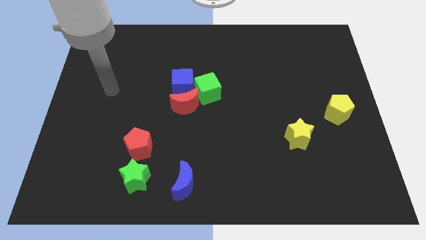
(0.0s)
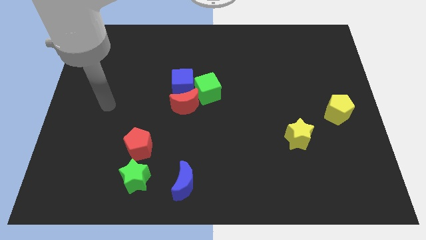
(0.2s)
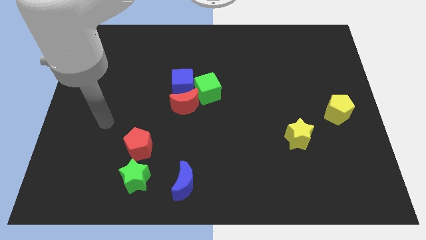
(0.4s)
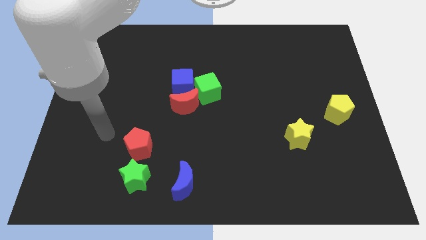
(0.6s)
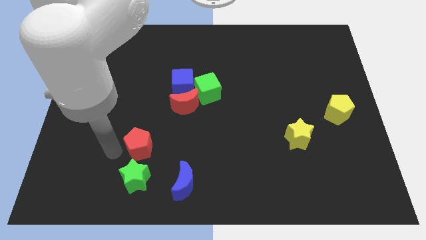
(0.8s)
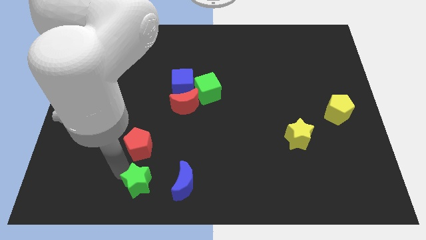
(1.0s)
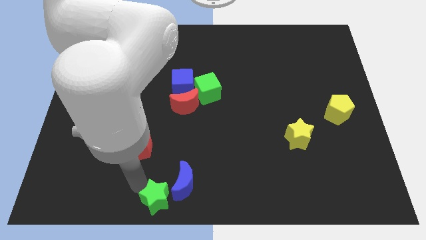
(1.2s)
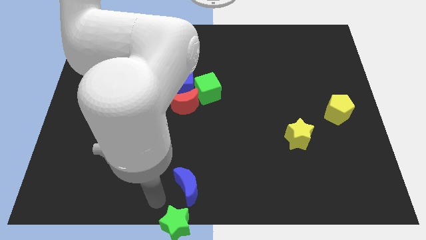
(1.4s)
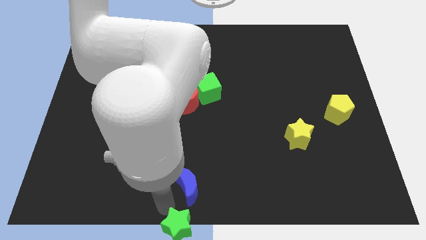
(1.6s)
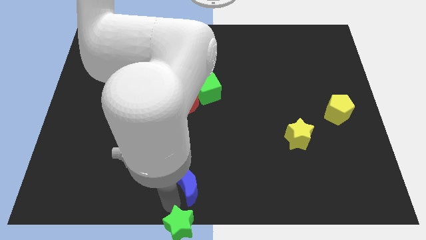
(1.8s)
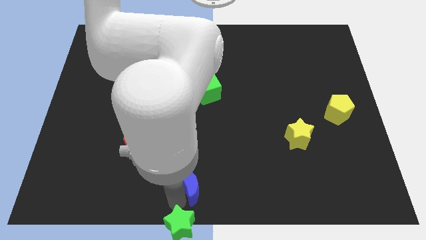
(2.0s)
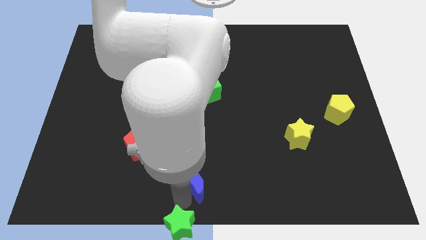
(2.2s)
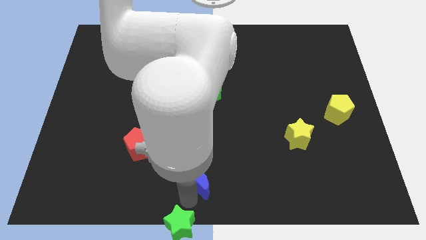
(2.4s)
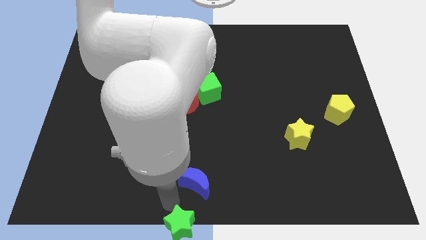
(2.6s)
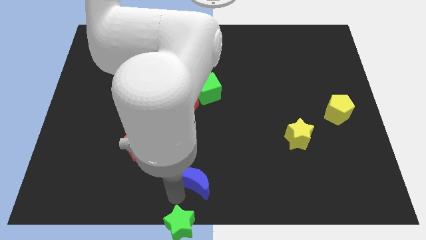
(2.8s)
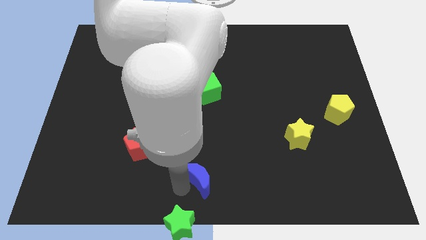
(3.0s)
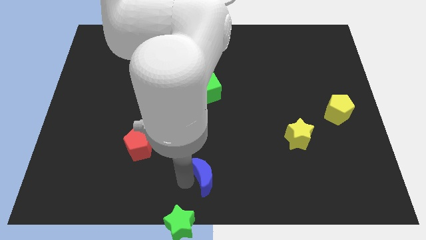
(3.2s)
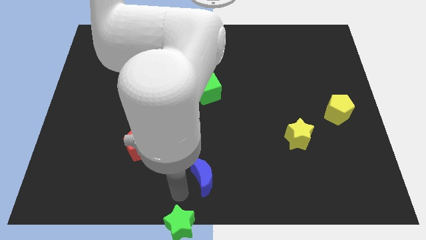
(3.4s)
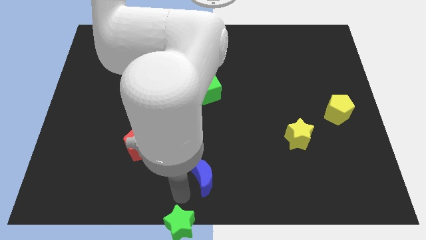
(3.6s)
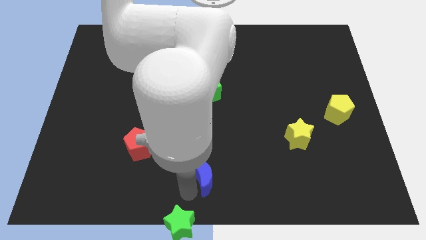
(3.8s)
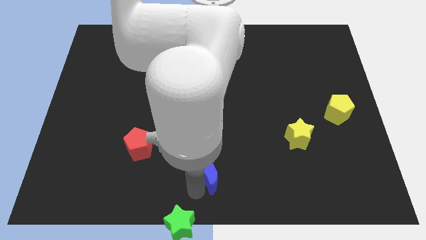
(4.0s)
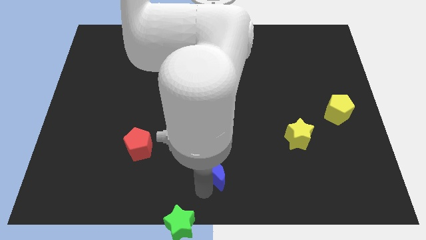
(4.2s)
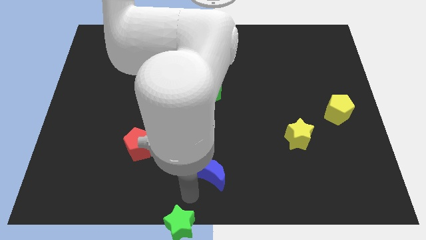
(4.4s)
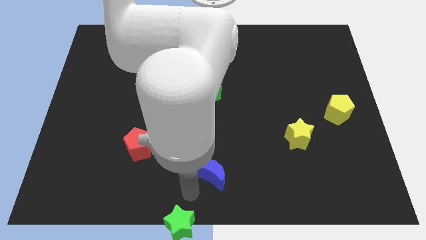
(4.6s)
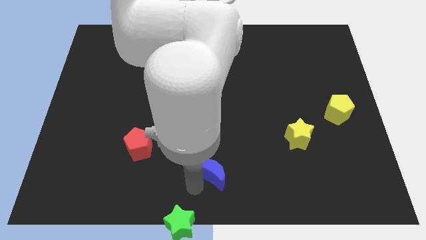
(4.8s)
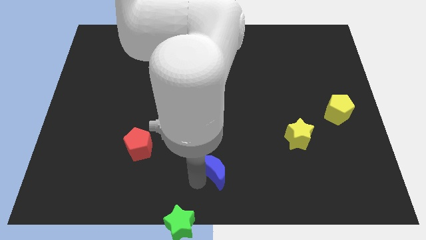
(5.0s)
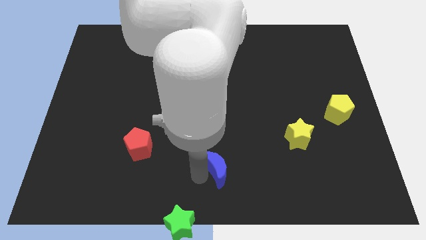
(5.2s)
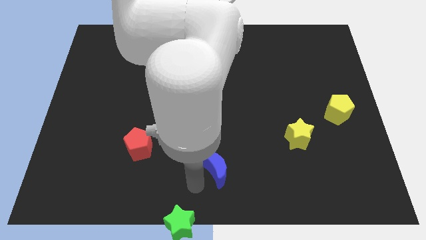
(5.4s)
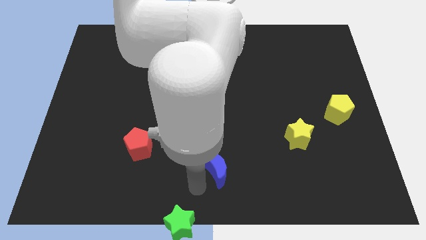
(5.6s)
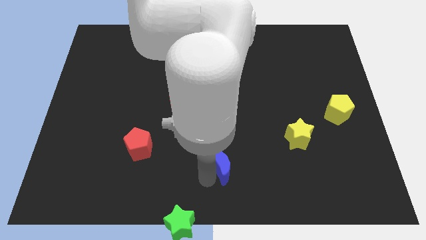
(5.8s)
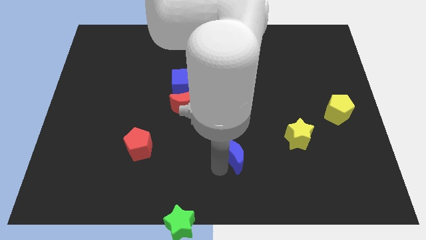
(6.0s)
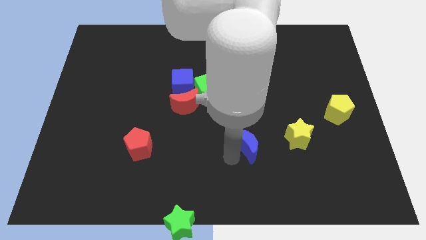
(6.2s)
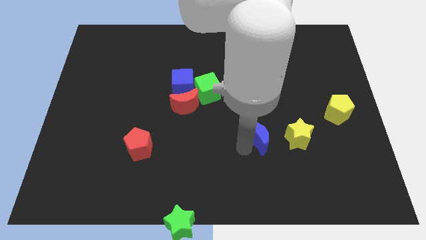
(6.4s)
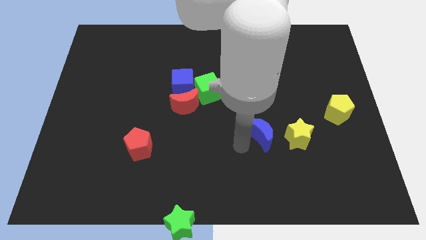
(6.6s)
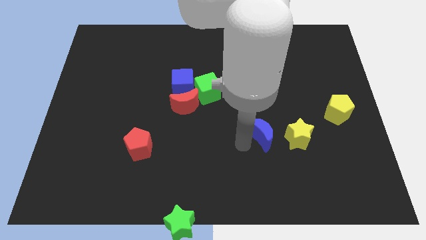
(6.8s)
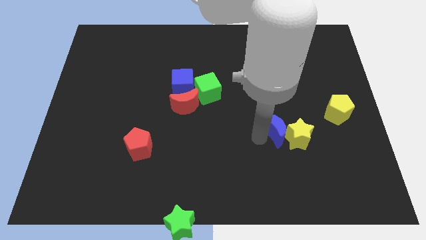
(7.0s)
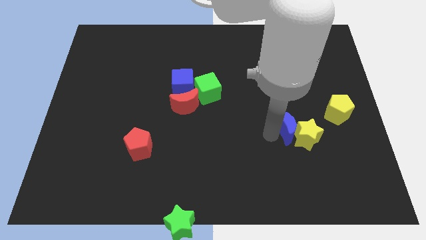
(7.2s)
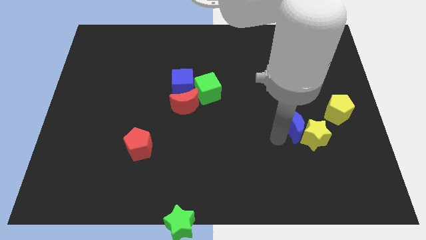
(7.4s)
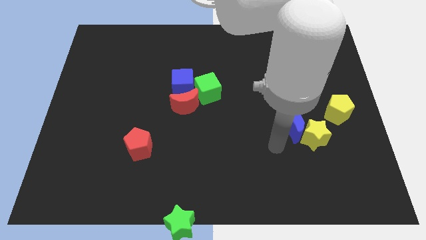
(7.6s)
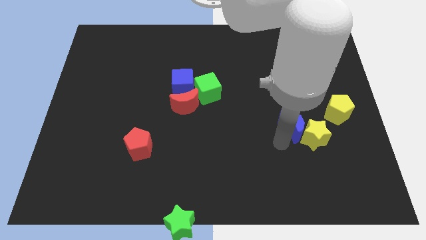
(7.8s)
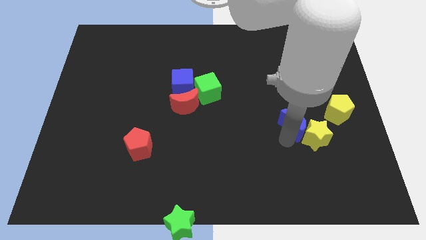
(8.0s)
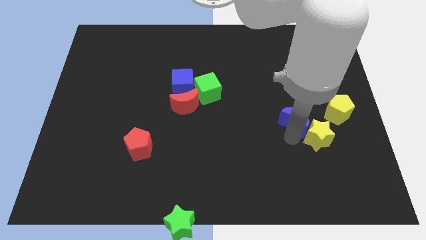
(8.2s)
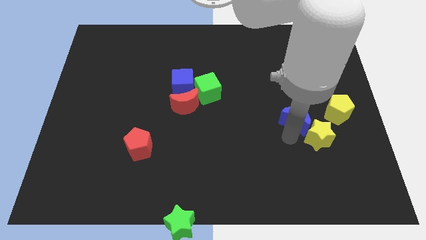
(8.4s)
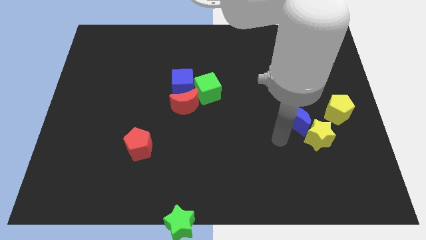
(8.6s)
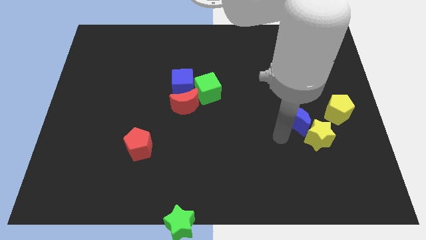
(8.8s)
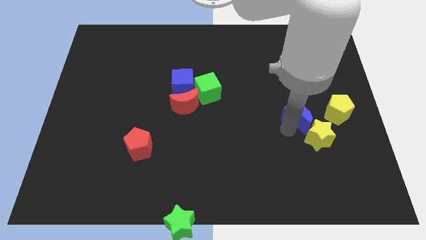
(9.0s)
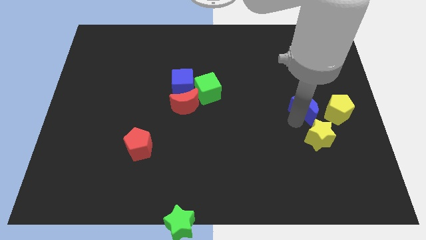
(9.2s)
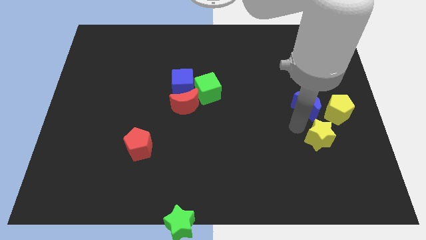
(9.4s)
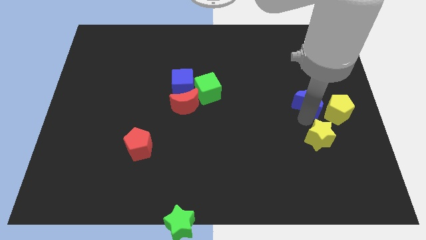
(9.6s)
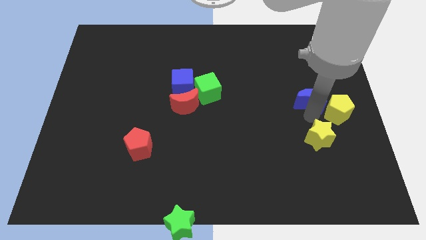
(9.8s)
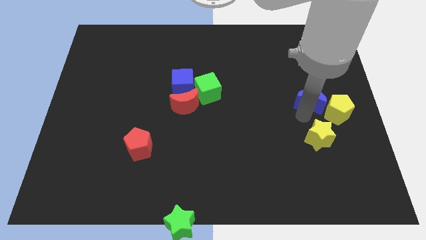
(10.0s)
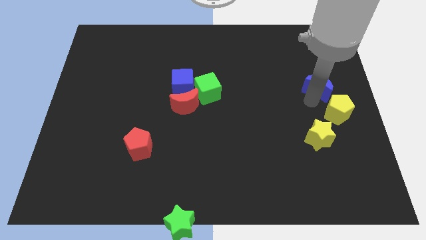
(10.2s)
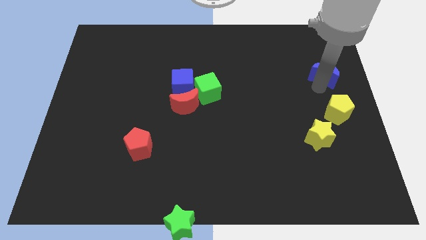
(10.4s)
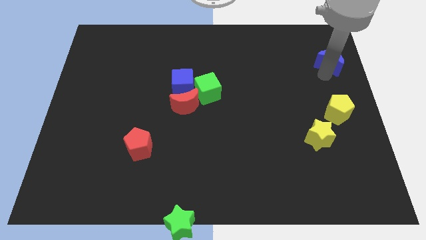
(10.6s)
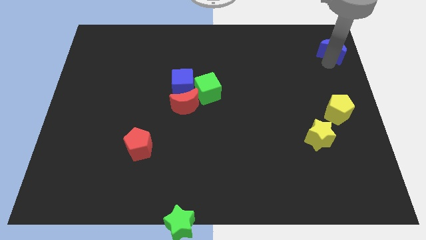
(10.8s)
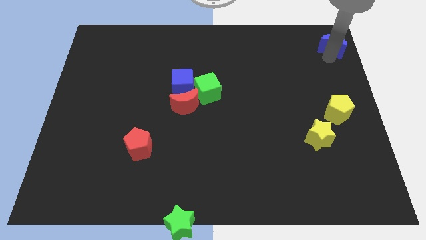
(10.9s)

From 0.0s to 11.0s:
slide the blue moon to the top right of the board

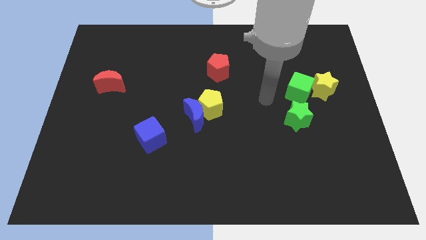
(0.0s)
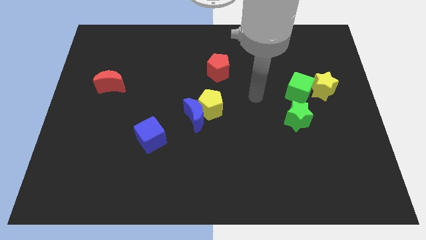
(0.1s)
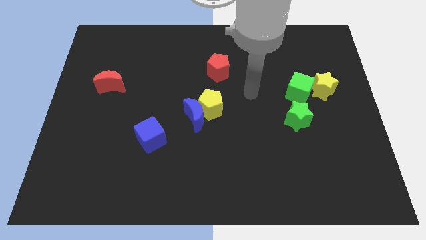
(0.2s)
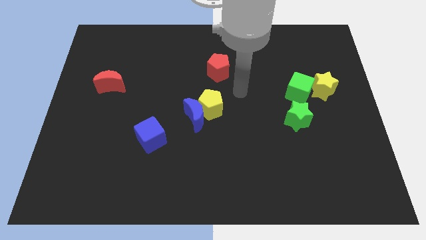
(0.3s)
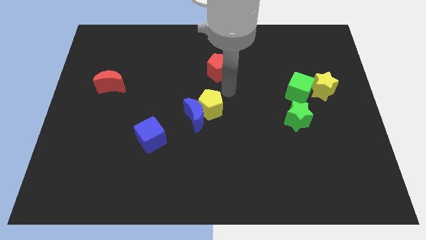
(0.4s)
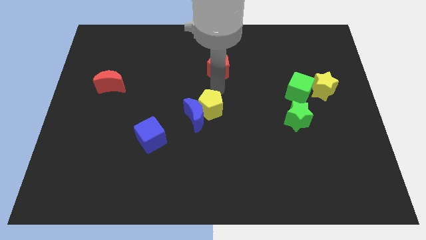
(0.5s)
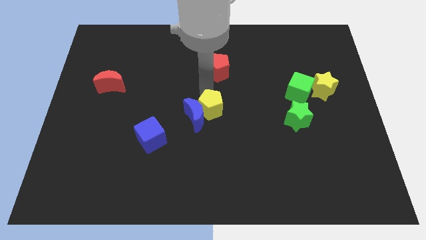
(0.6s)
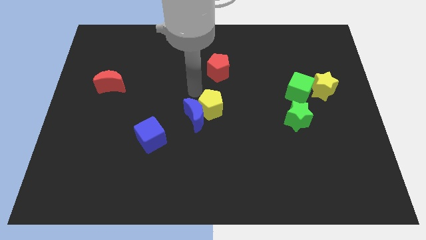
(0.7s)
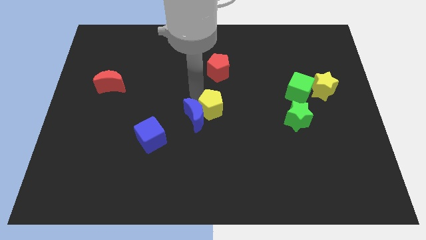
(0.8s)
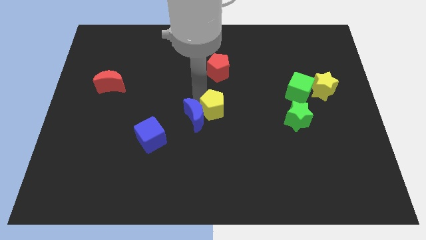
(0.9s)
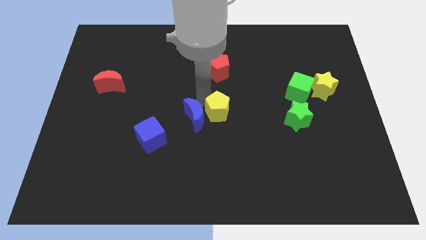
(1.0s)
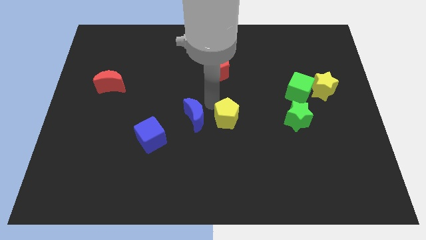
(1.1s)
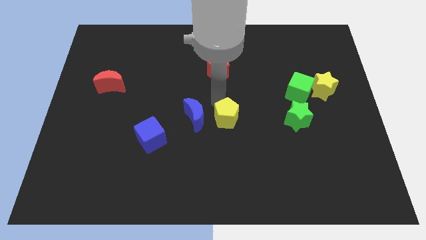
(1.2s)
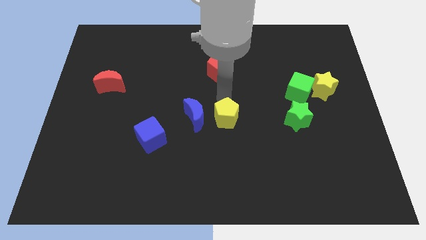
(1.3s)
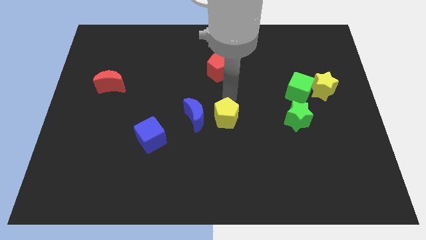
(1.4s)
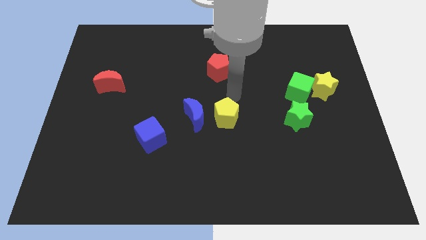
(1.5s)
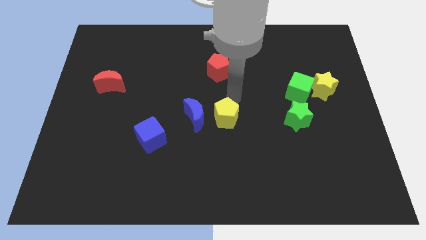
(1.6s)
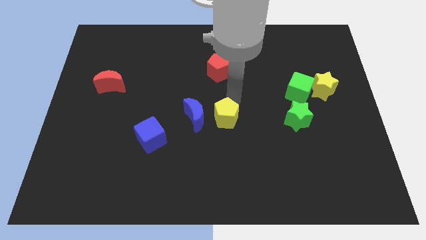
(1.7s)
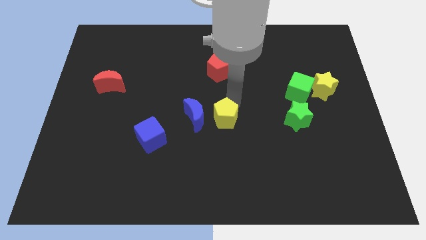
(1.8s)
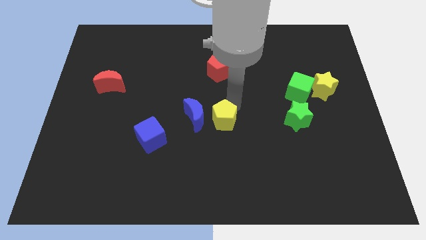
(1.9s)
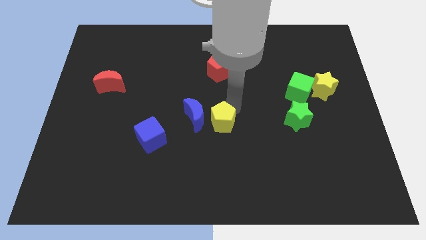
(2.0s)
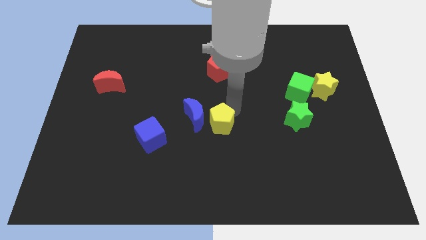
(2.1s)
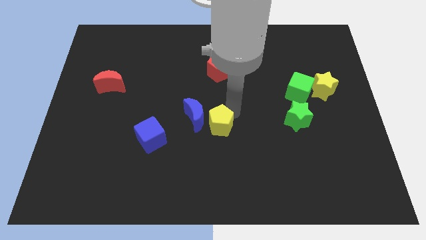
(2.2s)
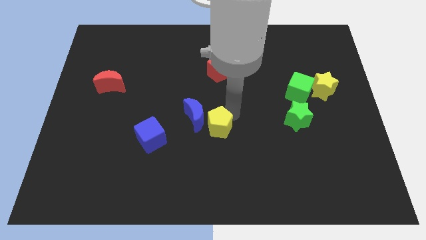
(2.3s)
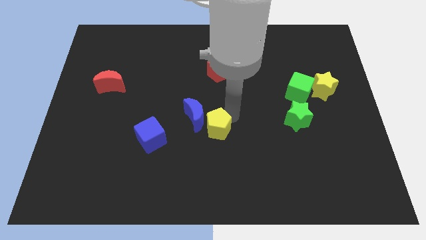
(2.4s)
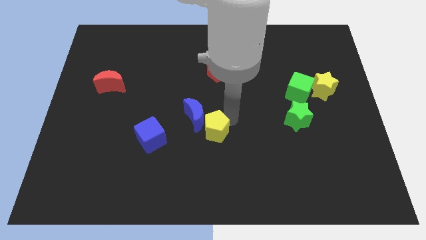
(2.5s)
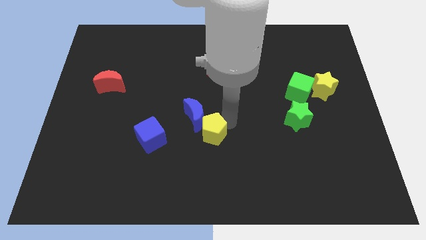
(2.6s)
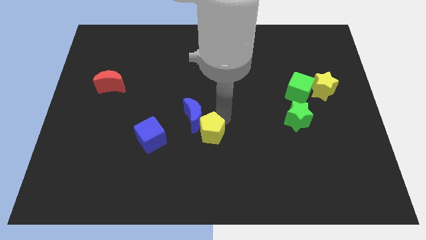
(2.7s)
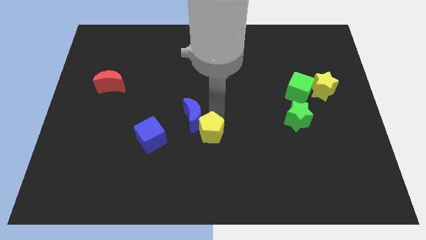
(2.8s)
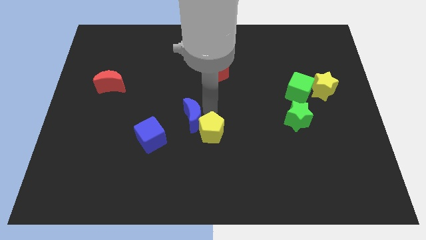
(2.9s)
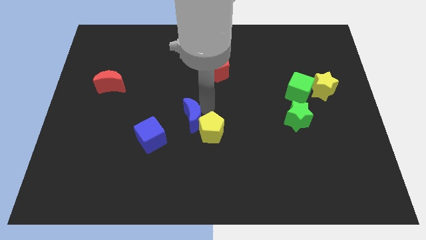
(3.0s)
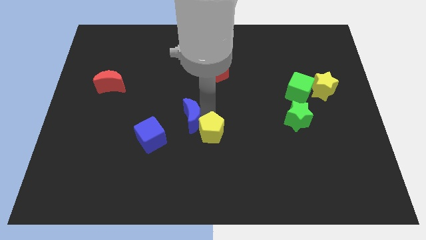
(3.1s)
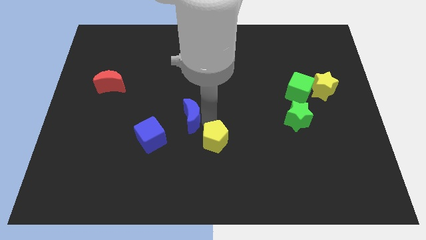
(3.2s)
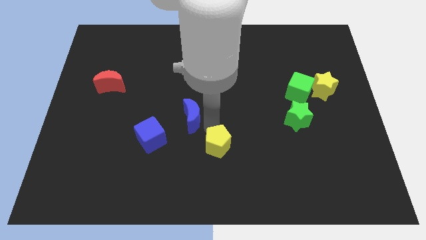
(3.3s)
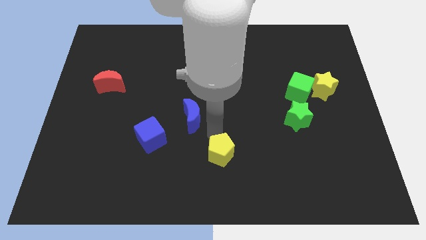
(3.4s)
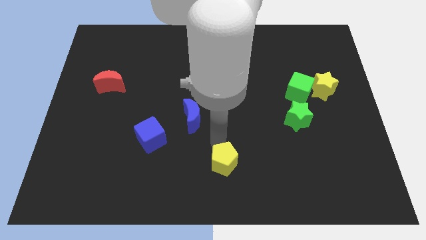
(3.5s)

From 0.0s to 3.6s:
slide the yellow pentagon to the bottom side
